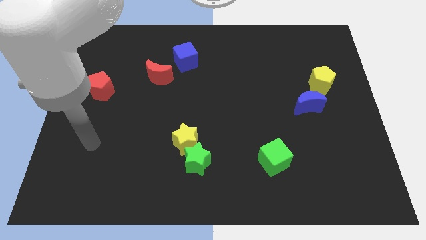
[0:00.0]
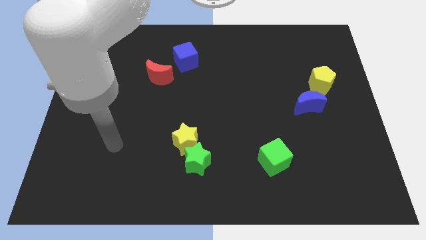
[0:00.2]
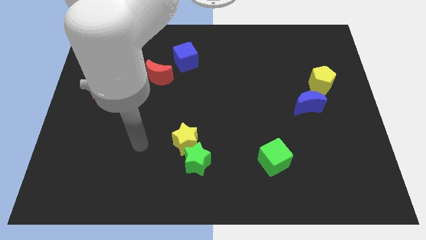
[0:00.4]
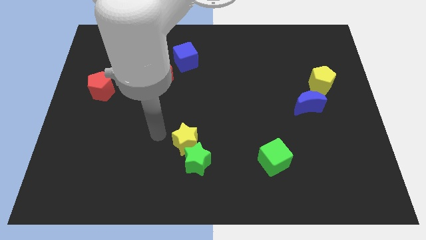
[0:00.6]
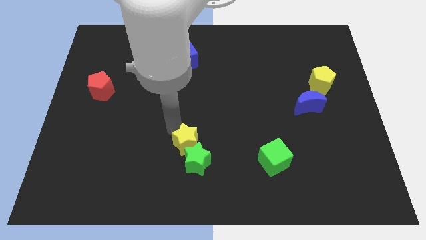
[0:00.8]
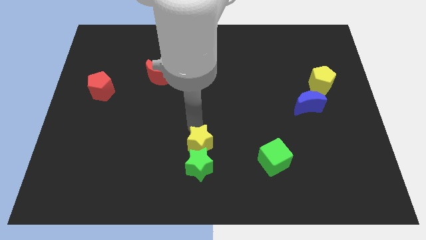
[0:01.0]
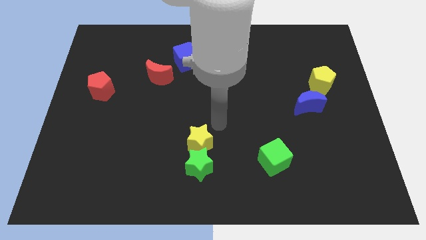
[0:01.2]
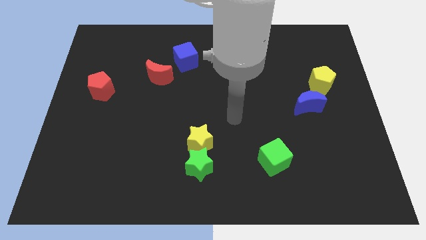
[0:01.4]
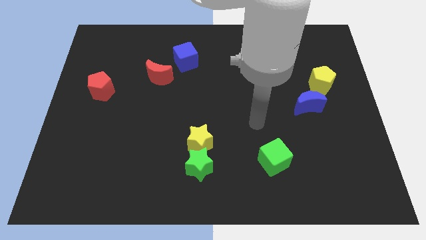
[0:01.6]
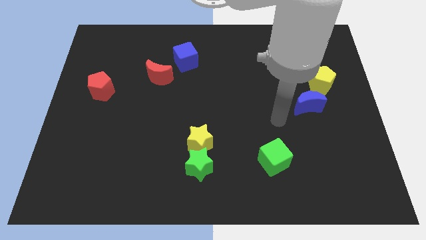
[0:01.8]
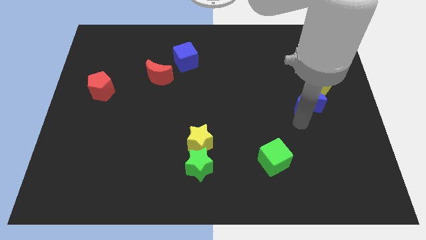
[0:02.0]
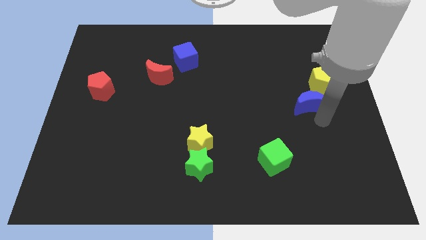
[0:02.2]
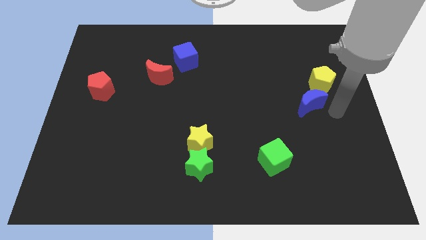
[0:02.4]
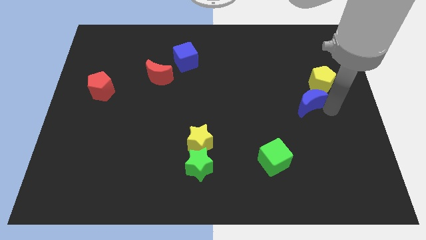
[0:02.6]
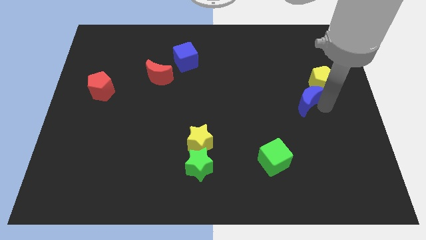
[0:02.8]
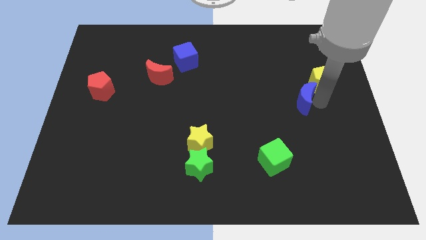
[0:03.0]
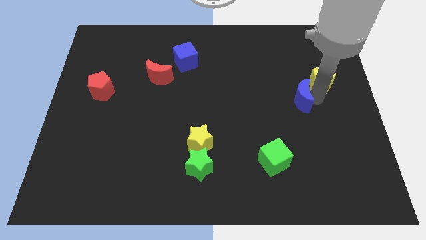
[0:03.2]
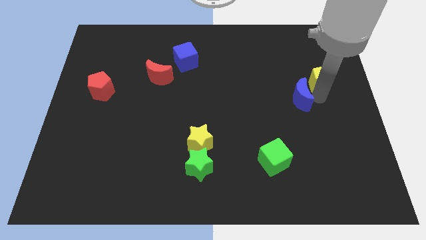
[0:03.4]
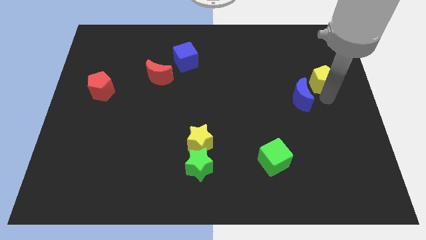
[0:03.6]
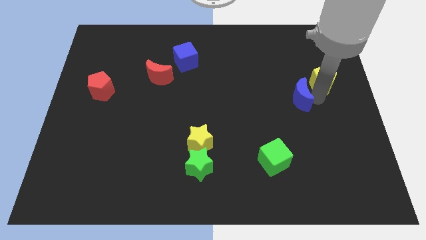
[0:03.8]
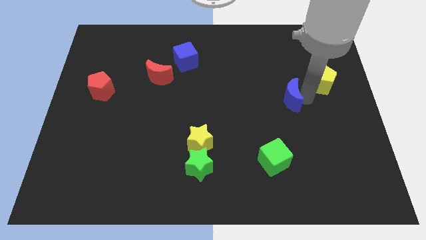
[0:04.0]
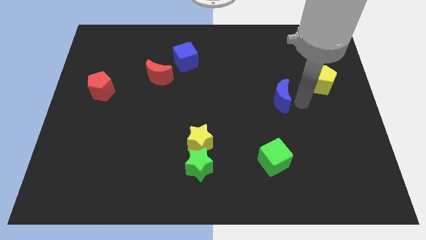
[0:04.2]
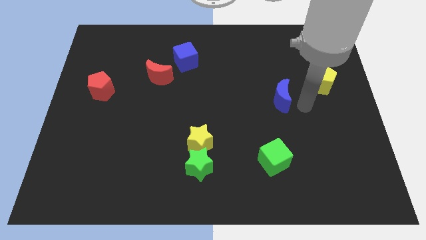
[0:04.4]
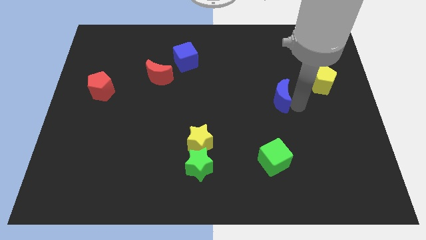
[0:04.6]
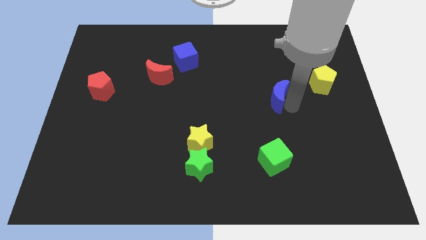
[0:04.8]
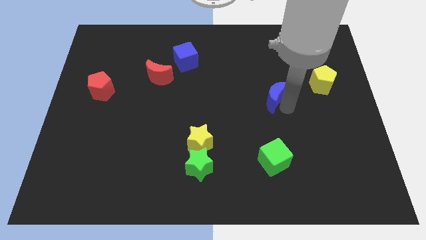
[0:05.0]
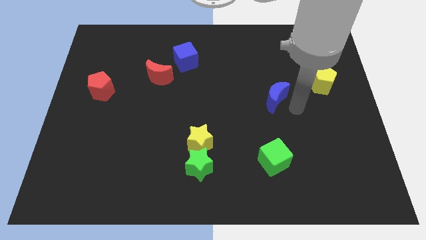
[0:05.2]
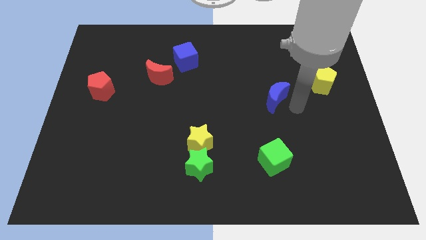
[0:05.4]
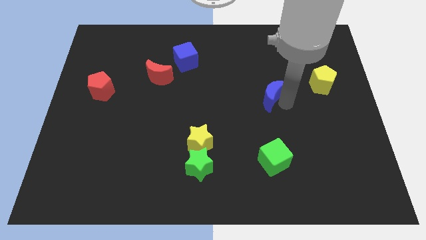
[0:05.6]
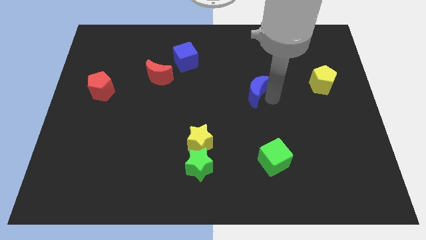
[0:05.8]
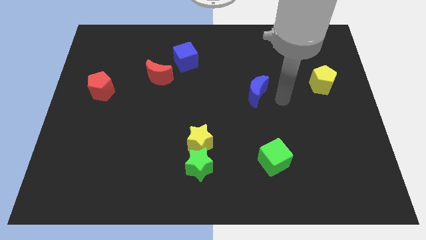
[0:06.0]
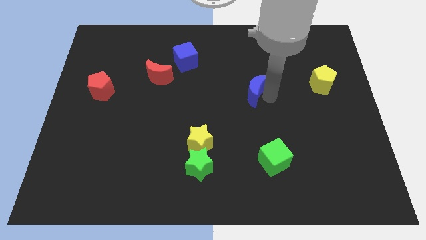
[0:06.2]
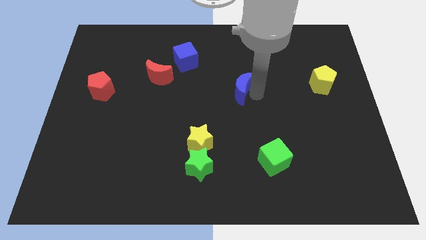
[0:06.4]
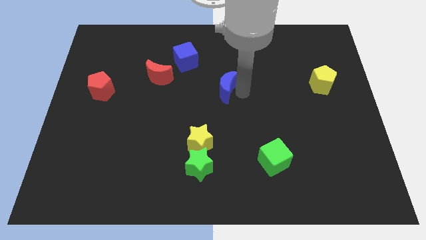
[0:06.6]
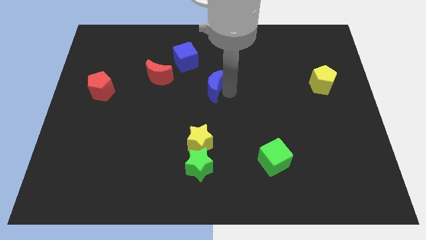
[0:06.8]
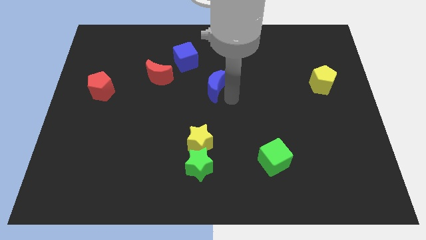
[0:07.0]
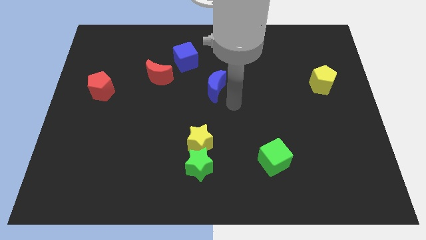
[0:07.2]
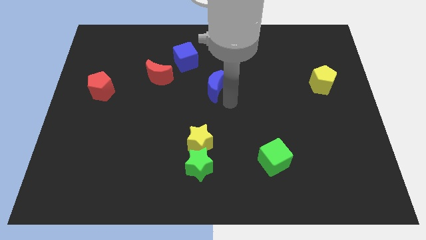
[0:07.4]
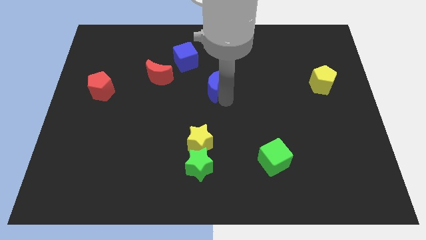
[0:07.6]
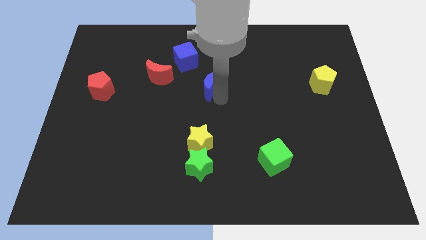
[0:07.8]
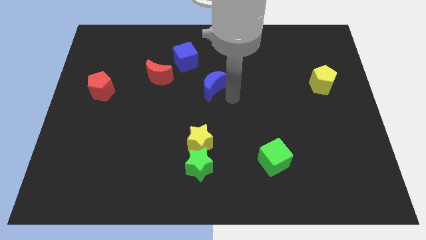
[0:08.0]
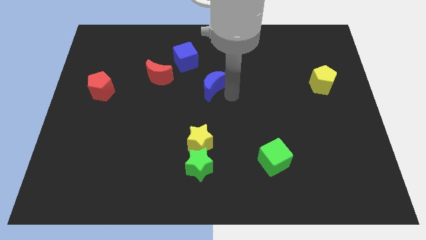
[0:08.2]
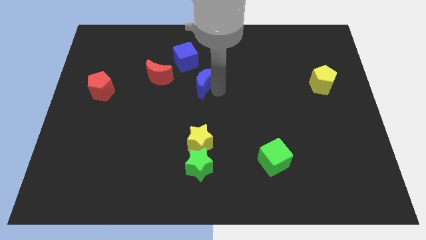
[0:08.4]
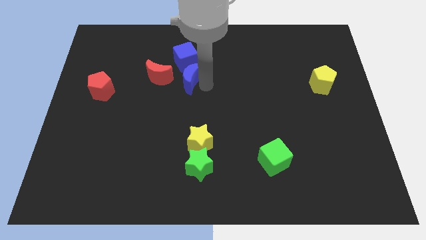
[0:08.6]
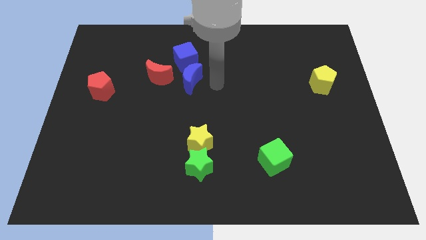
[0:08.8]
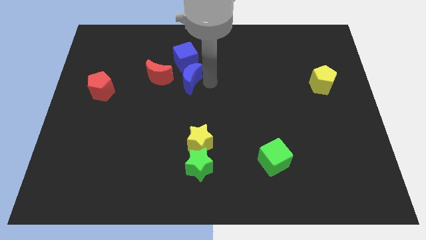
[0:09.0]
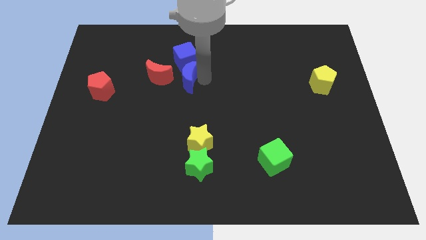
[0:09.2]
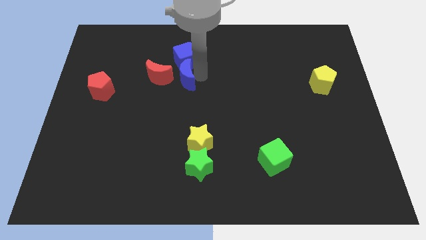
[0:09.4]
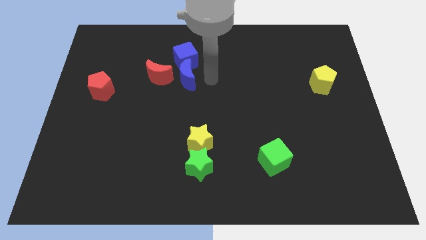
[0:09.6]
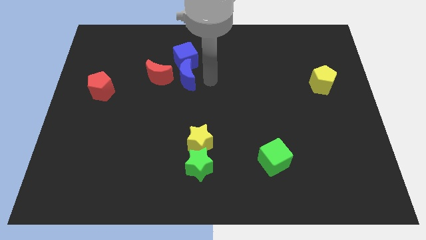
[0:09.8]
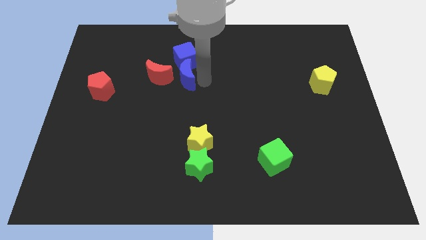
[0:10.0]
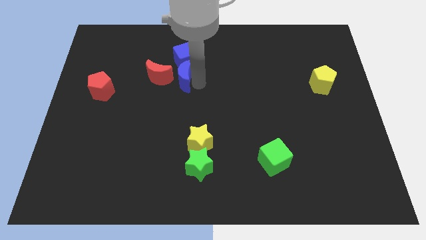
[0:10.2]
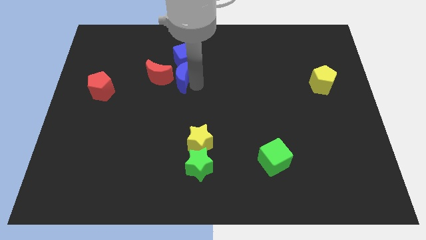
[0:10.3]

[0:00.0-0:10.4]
put the blue moon to the red moon

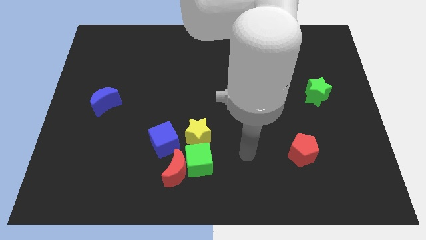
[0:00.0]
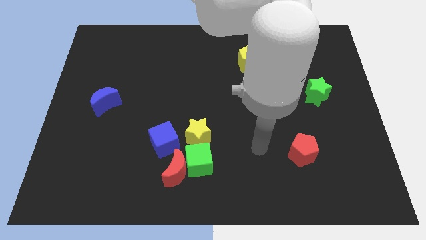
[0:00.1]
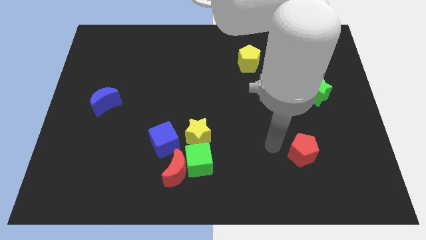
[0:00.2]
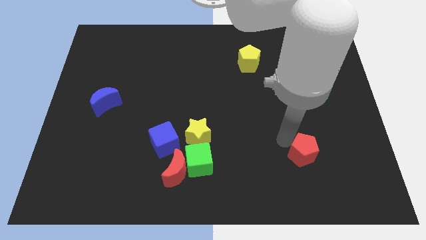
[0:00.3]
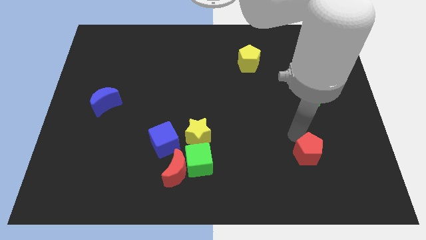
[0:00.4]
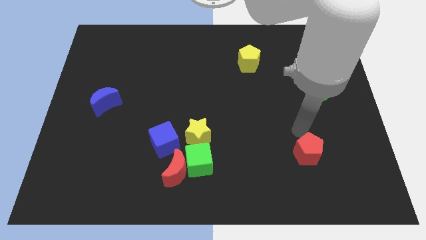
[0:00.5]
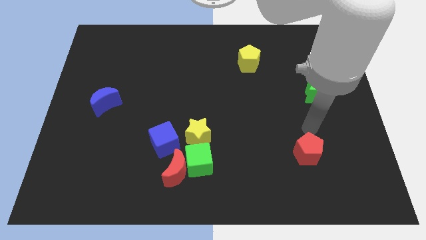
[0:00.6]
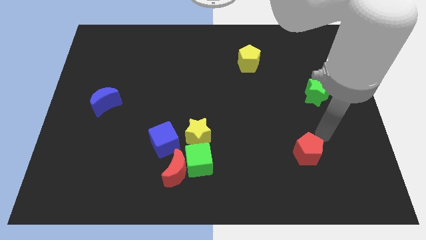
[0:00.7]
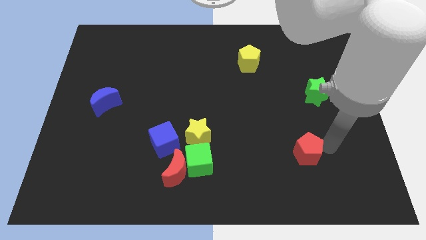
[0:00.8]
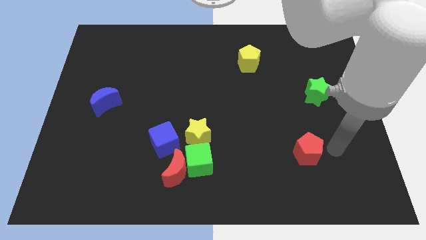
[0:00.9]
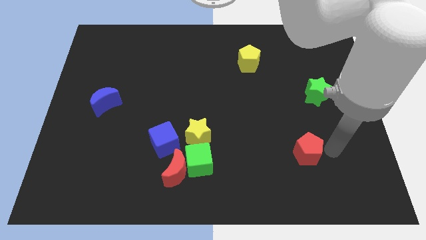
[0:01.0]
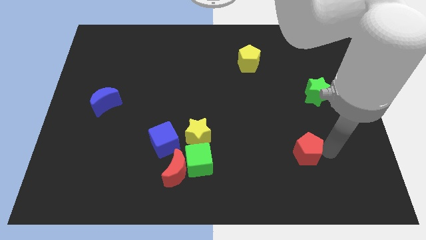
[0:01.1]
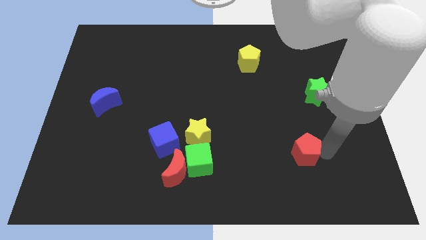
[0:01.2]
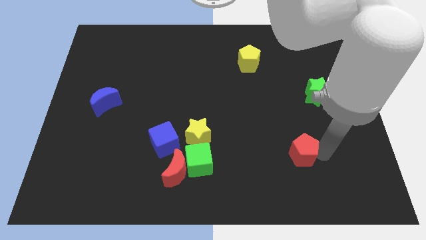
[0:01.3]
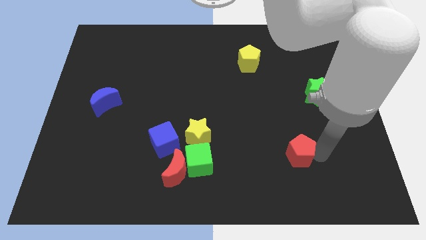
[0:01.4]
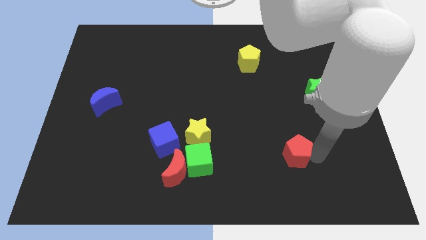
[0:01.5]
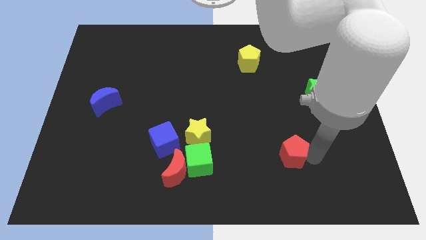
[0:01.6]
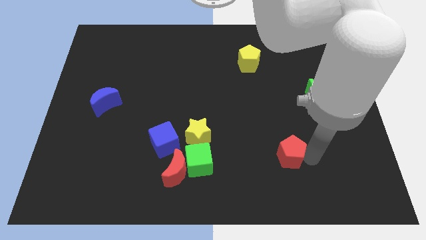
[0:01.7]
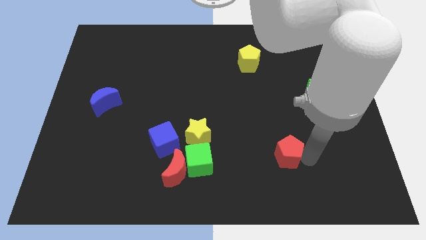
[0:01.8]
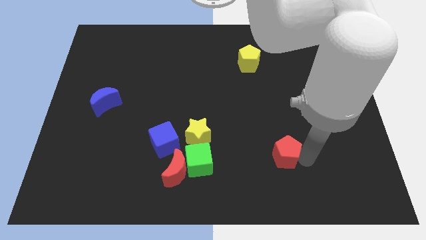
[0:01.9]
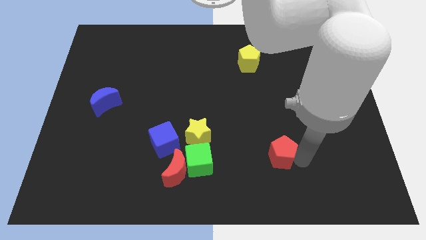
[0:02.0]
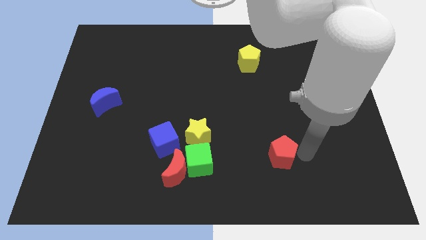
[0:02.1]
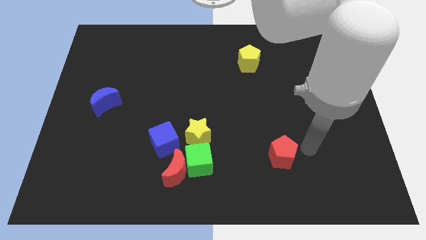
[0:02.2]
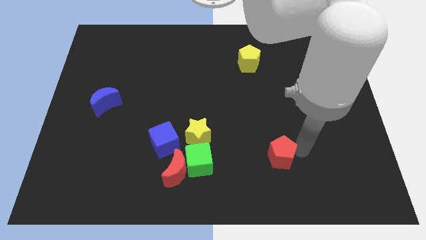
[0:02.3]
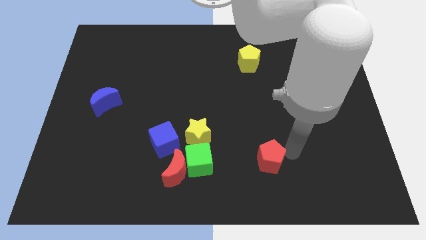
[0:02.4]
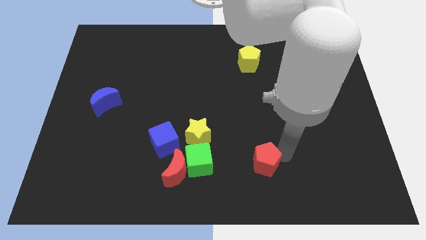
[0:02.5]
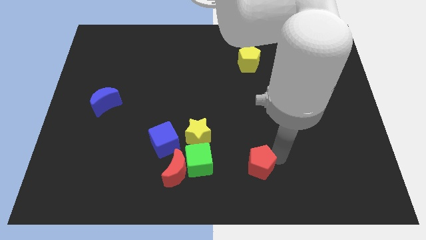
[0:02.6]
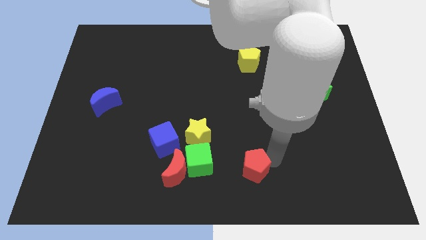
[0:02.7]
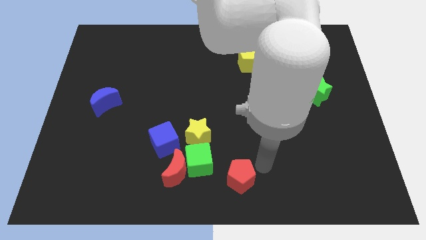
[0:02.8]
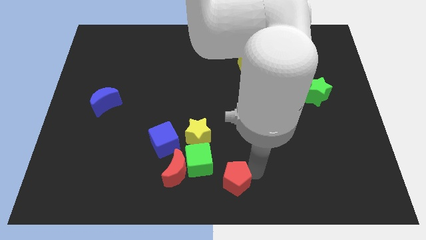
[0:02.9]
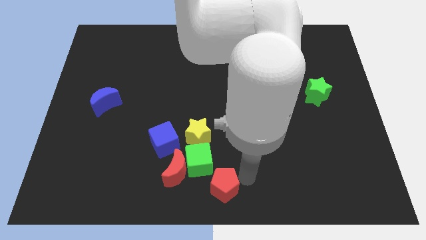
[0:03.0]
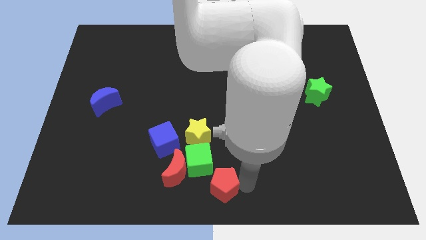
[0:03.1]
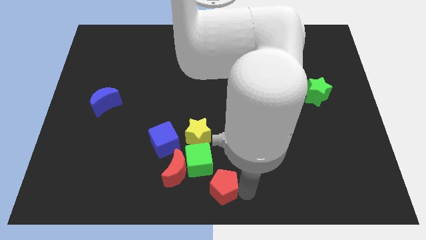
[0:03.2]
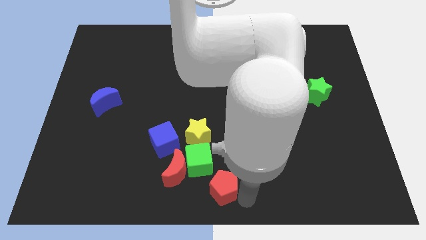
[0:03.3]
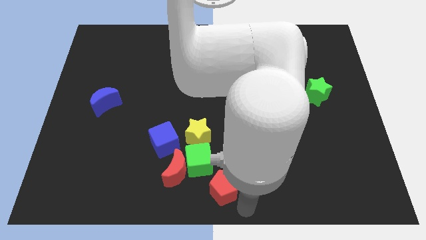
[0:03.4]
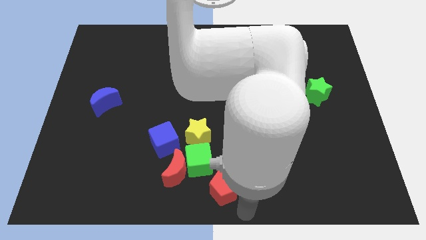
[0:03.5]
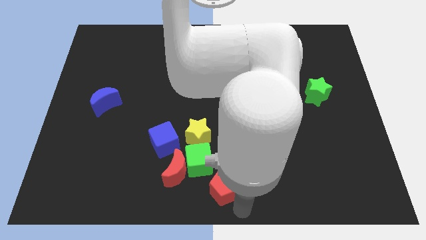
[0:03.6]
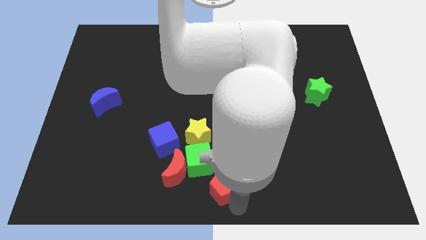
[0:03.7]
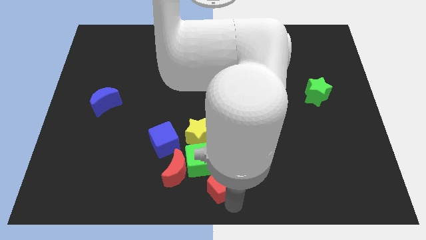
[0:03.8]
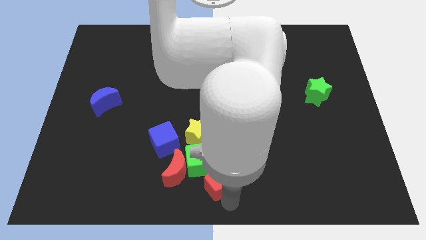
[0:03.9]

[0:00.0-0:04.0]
put the red pentagon towards the green cube
